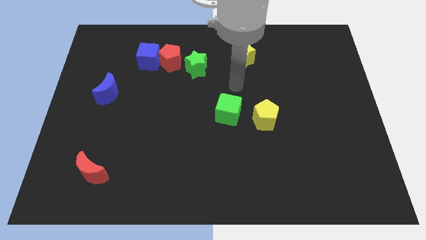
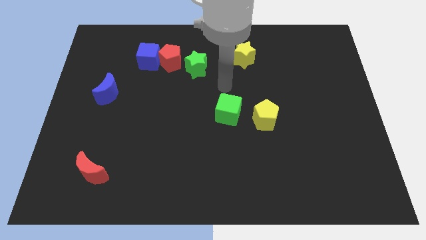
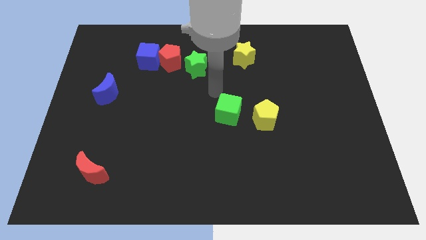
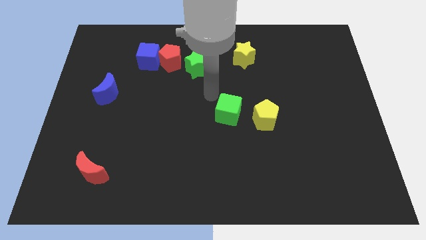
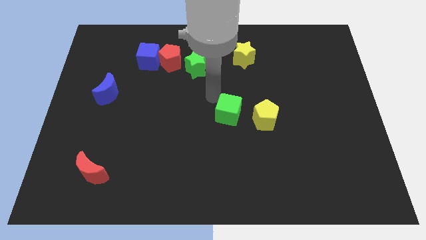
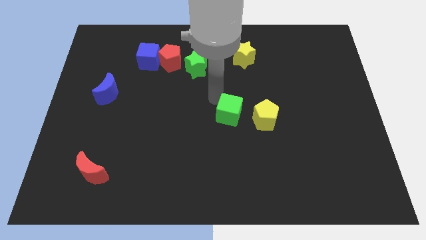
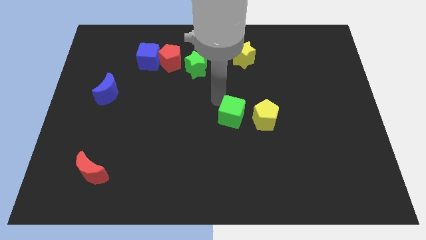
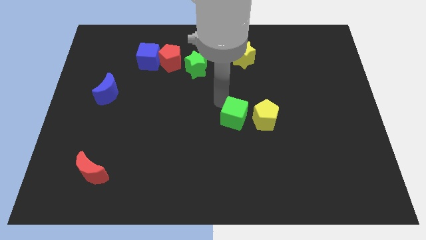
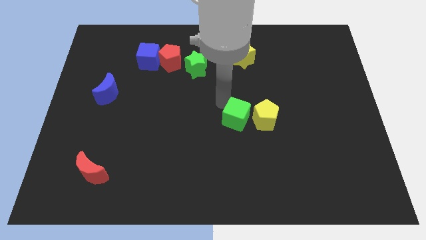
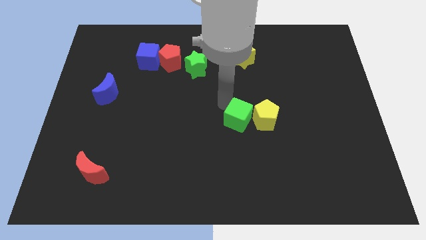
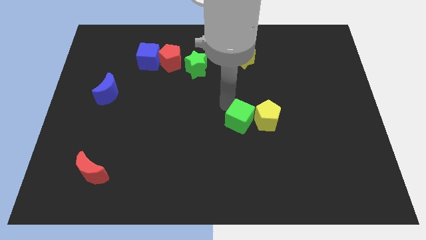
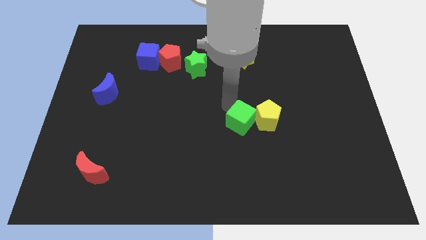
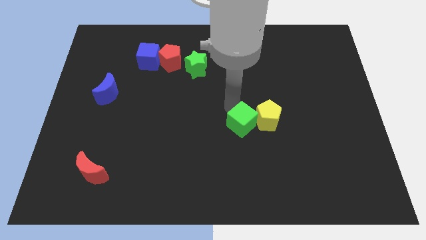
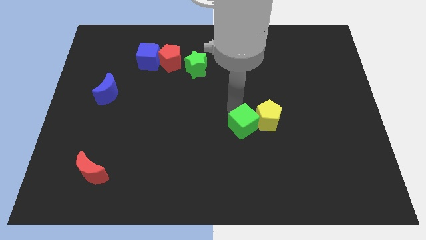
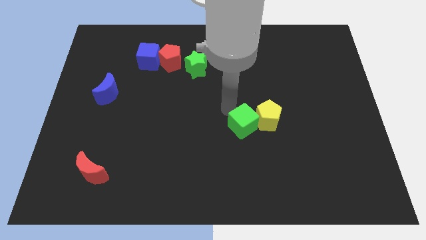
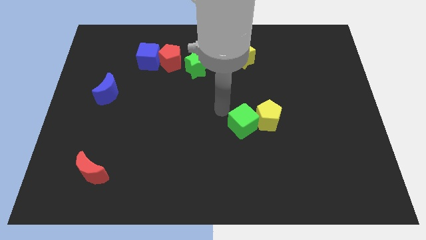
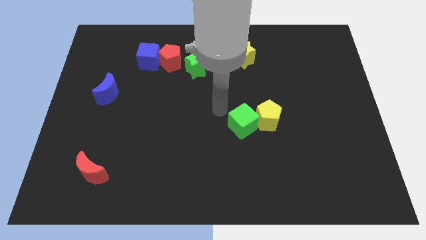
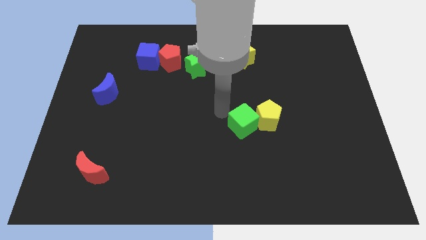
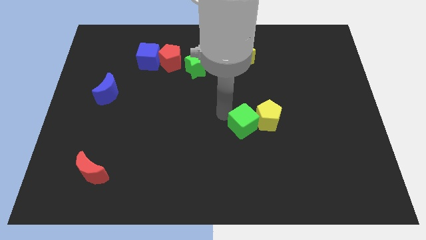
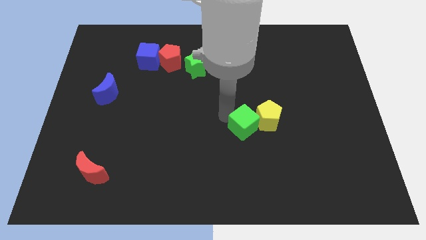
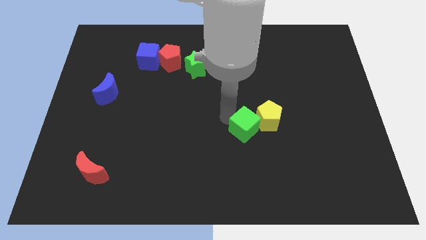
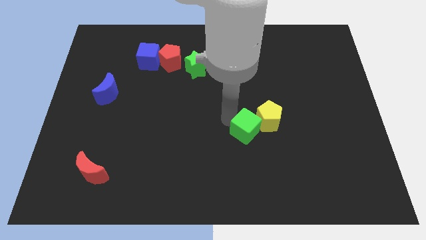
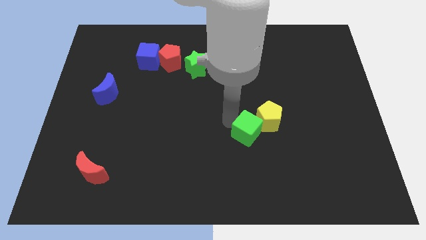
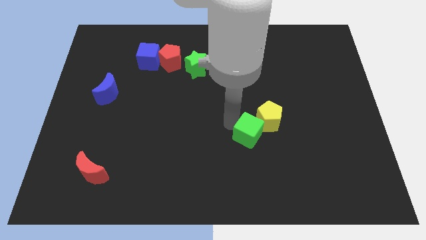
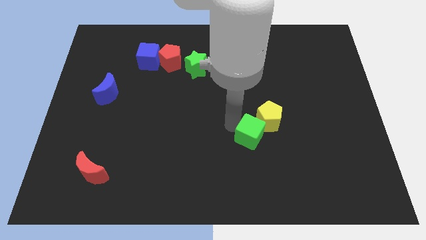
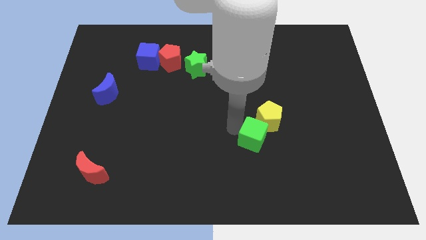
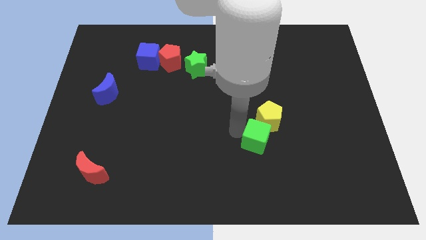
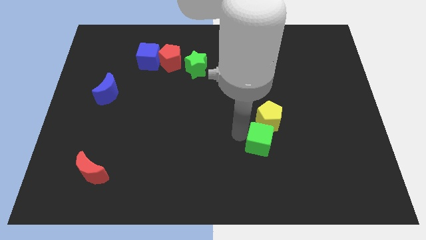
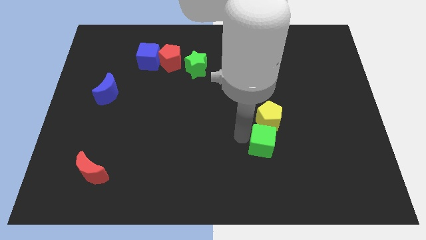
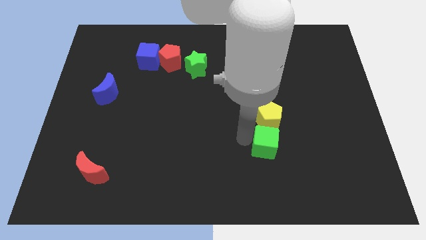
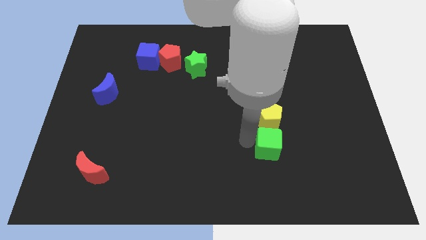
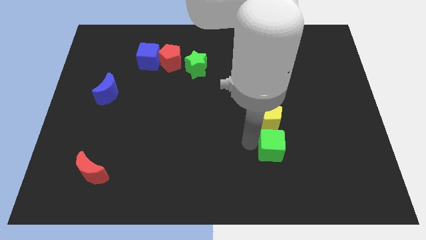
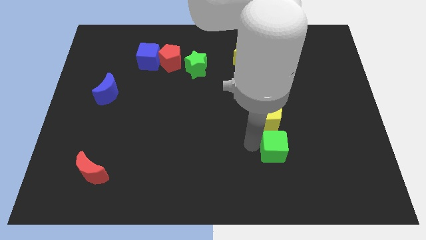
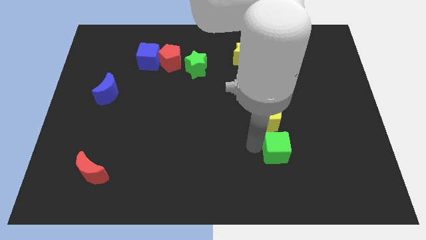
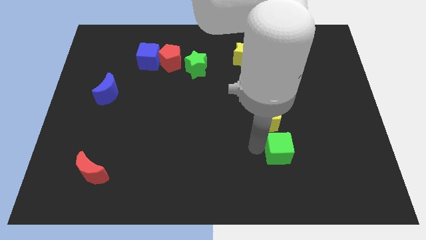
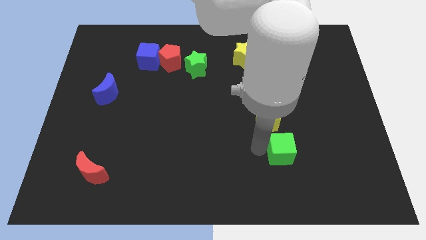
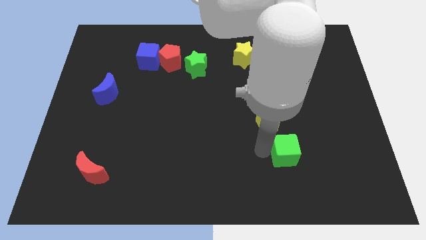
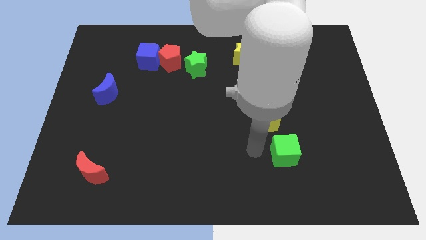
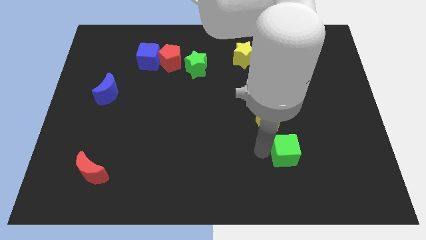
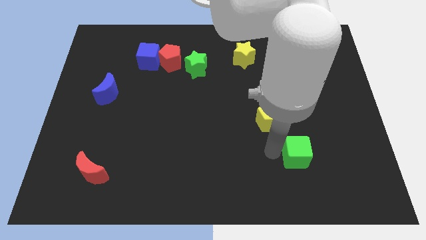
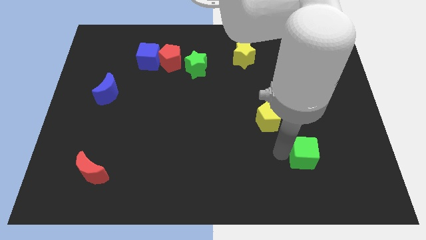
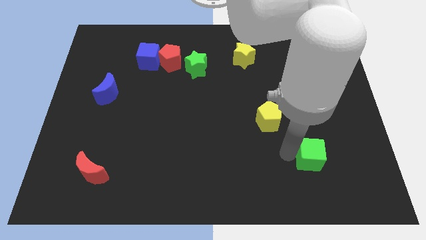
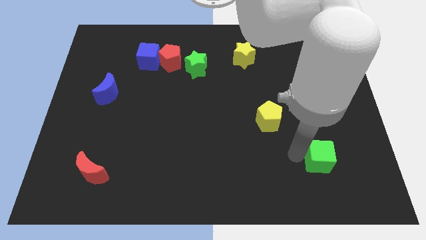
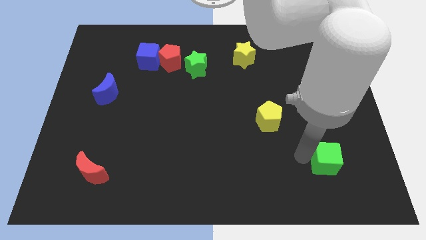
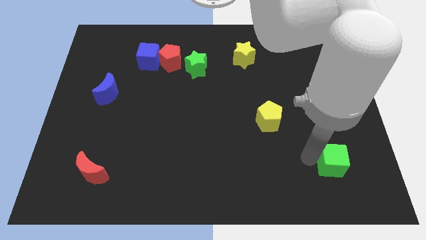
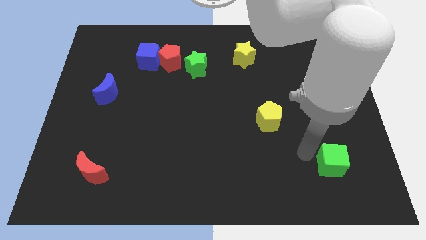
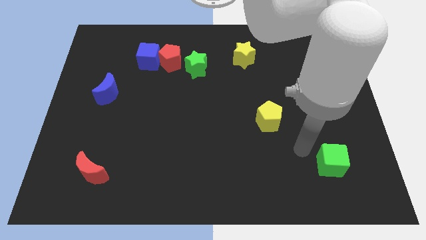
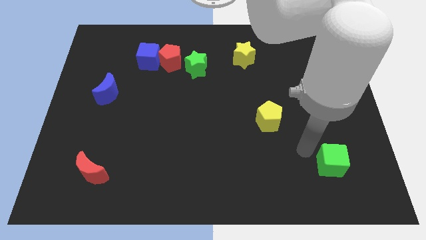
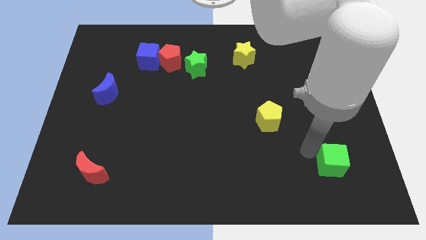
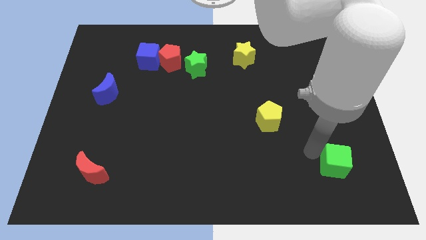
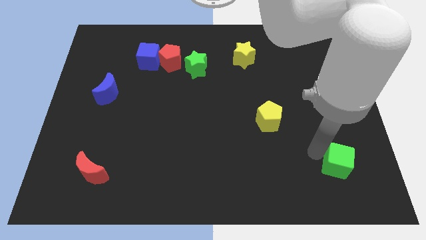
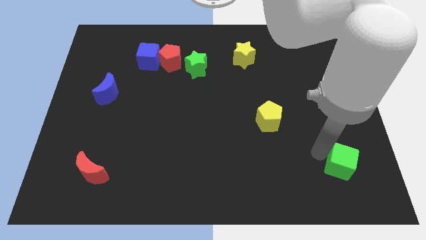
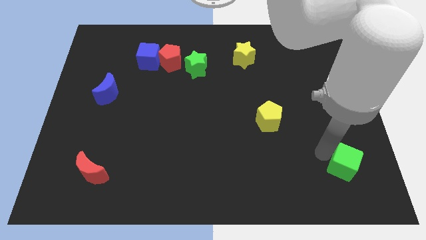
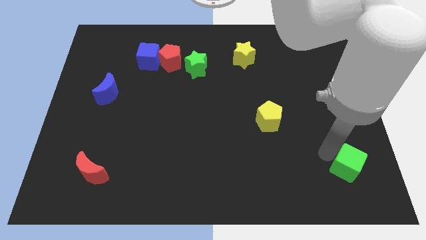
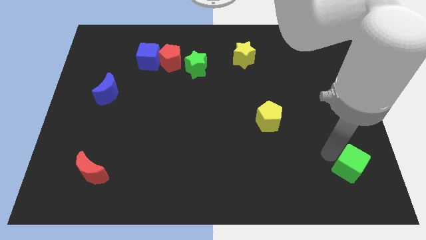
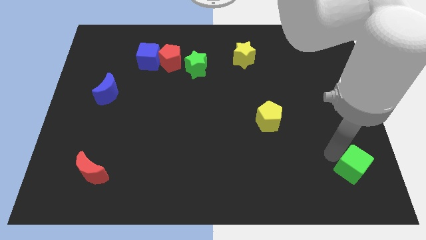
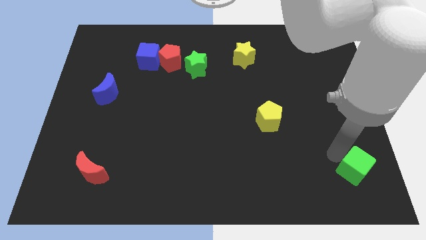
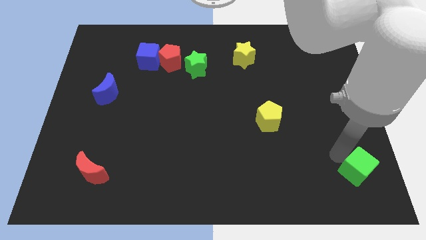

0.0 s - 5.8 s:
move the green cube to the bottom right

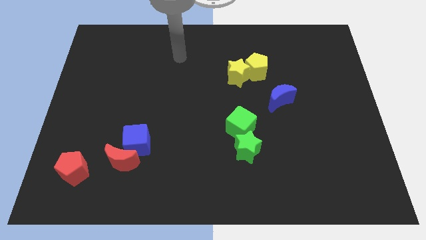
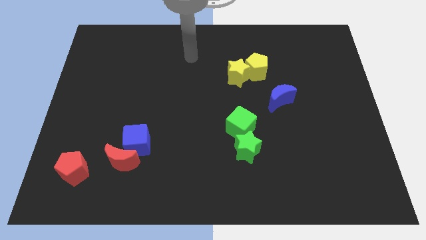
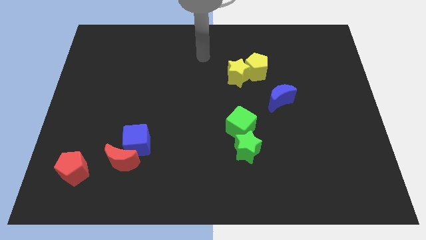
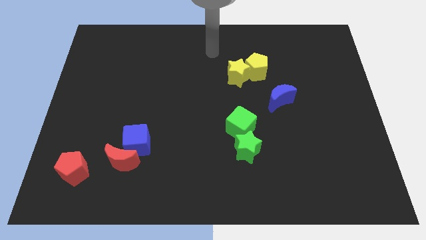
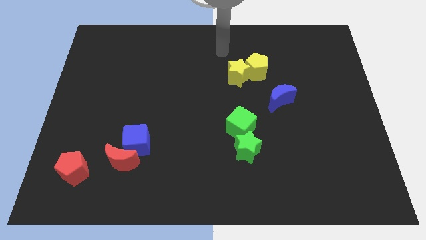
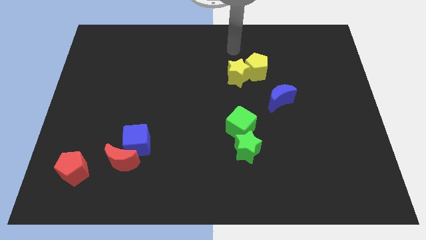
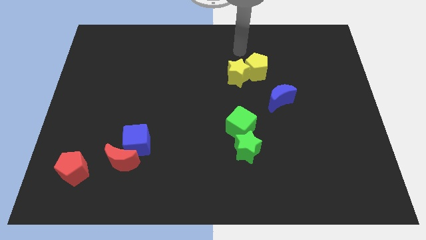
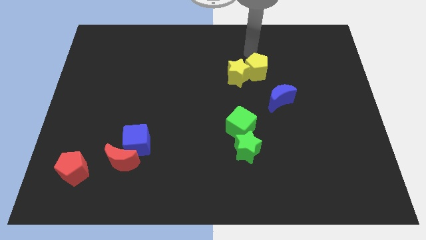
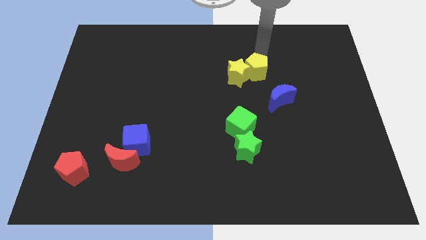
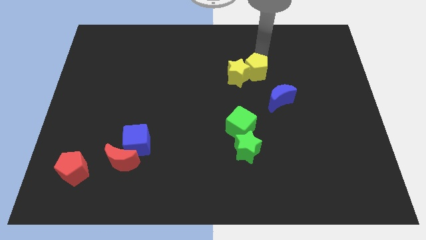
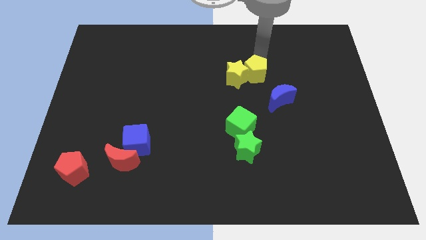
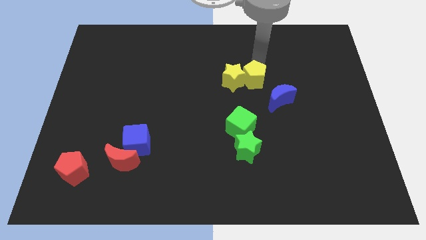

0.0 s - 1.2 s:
move the yellow pentagon to the center of the board
